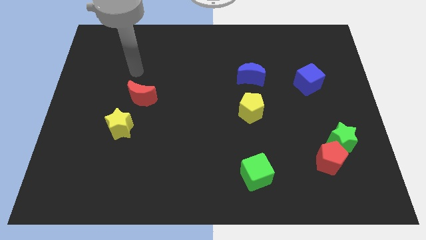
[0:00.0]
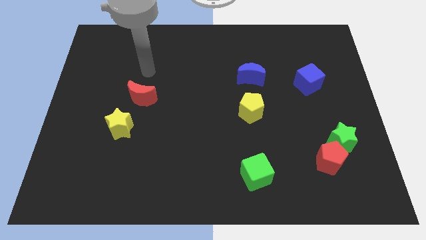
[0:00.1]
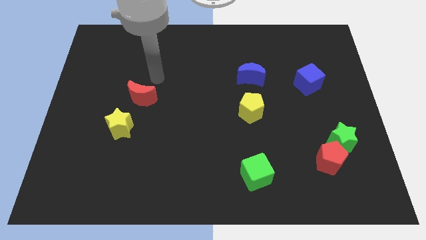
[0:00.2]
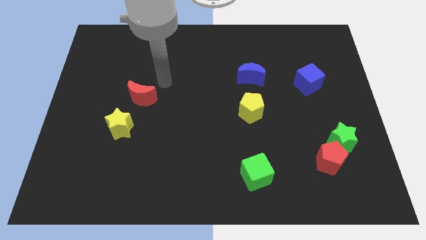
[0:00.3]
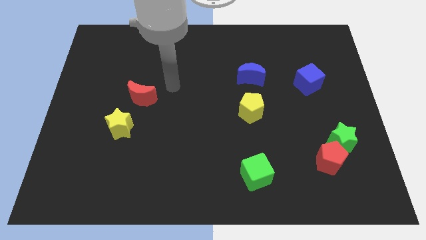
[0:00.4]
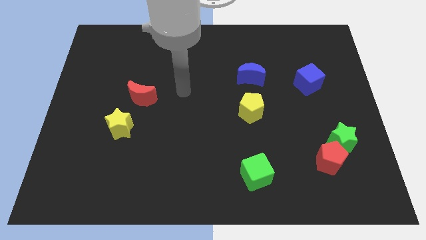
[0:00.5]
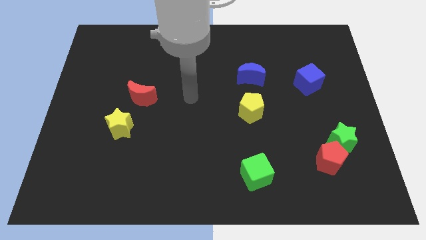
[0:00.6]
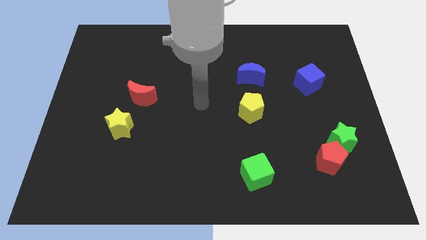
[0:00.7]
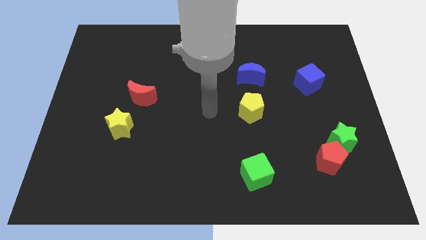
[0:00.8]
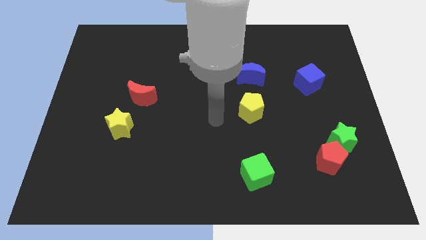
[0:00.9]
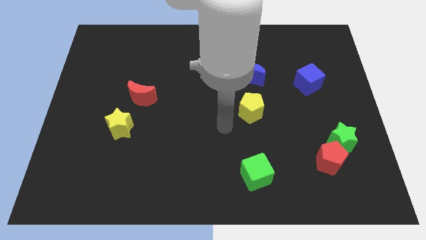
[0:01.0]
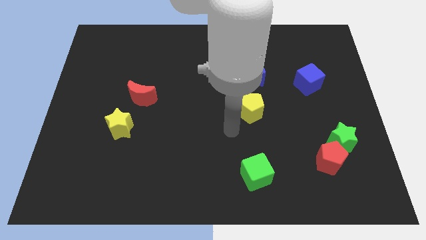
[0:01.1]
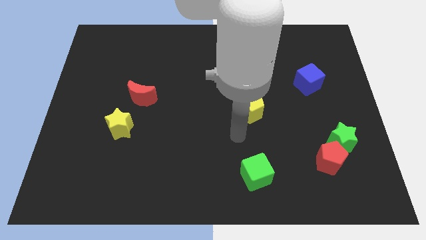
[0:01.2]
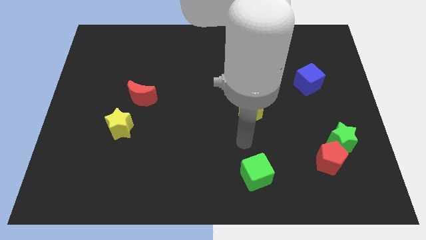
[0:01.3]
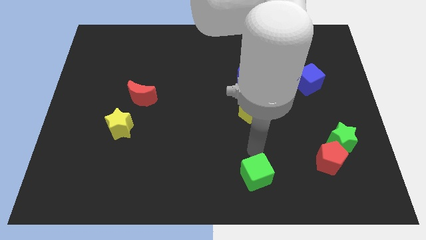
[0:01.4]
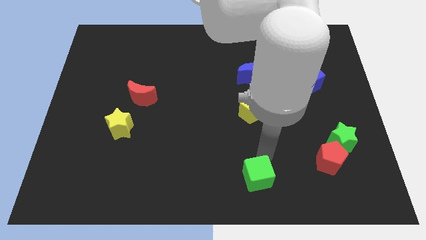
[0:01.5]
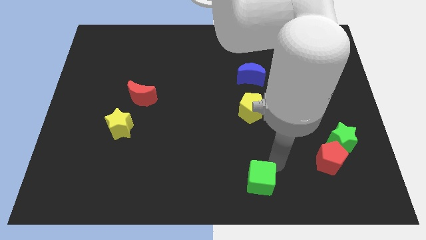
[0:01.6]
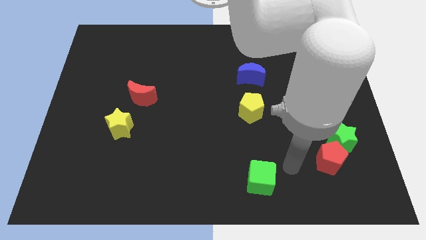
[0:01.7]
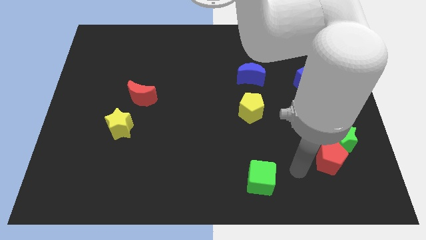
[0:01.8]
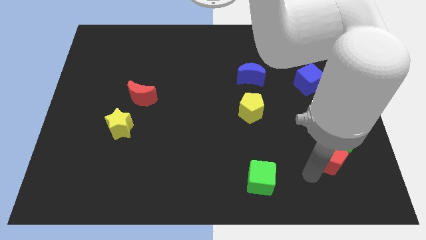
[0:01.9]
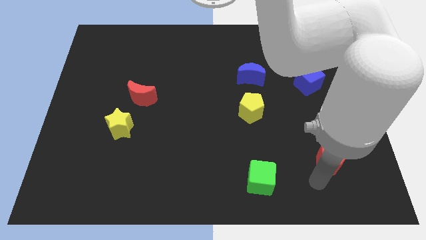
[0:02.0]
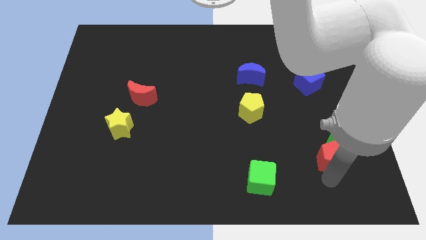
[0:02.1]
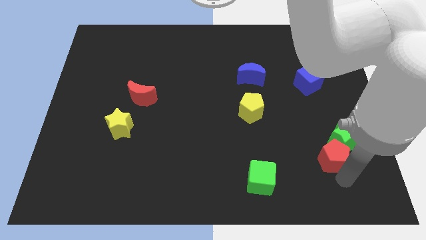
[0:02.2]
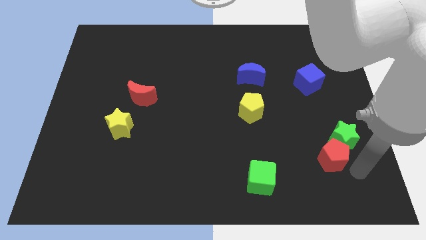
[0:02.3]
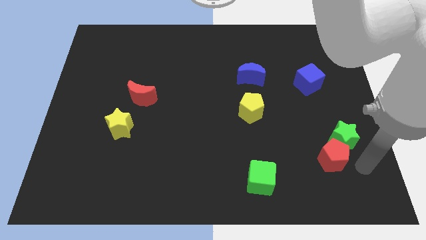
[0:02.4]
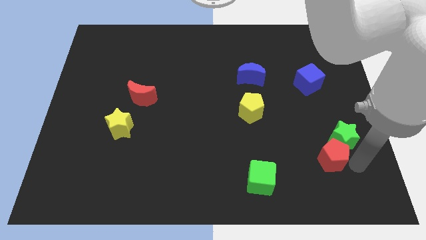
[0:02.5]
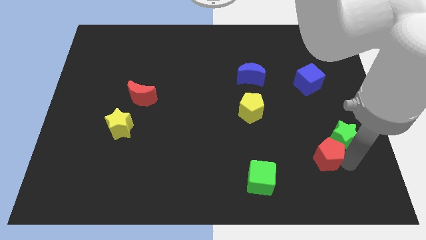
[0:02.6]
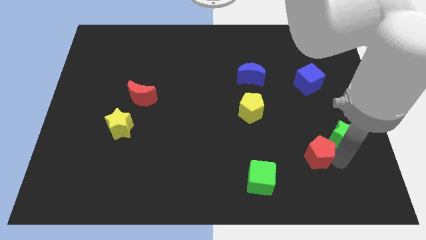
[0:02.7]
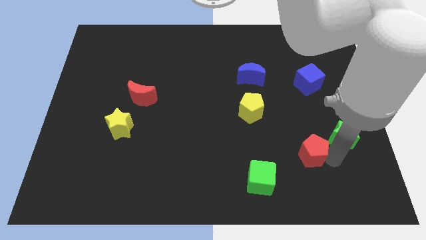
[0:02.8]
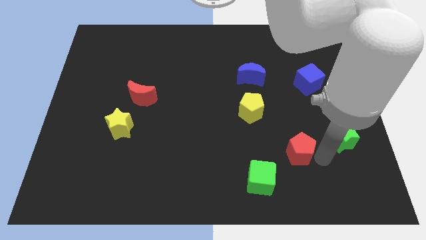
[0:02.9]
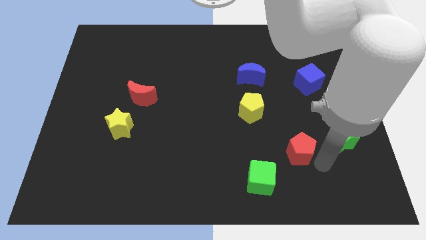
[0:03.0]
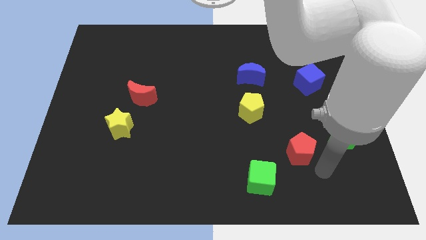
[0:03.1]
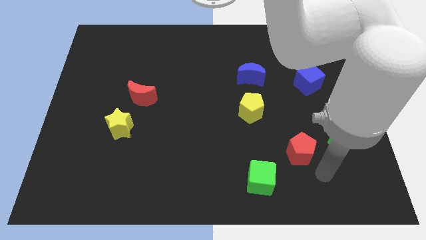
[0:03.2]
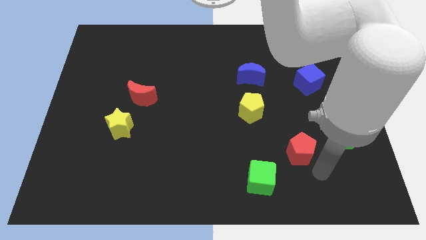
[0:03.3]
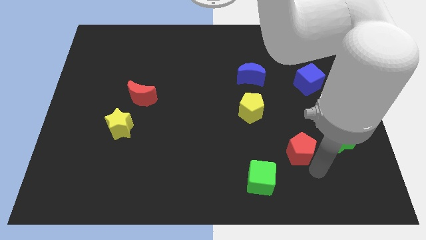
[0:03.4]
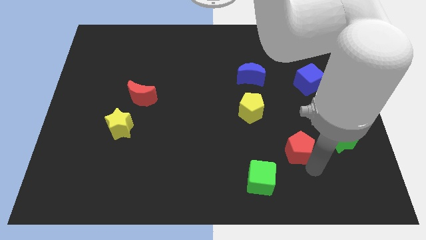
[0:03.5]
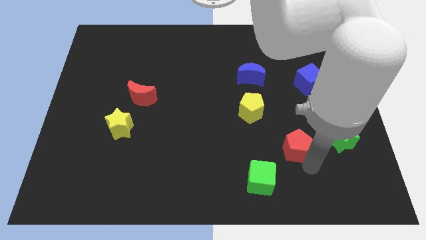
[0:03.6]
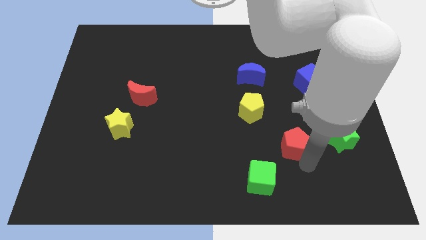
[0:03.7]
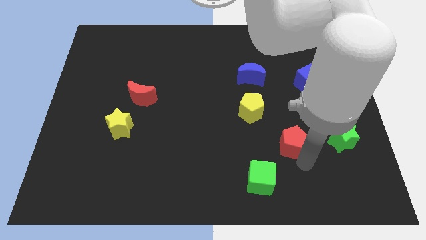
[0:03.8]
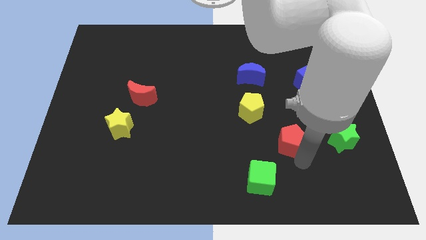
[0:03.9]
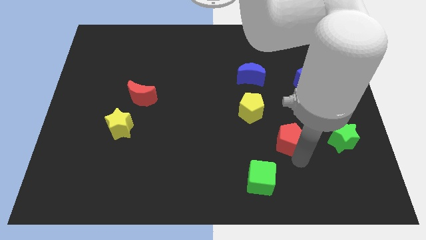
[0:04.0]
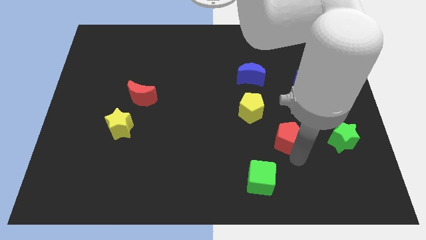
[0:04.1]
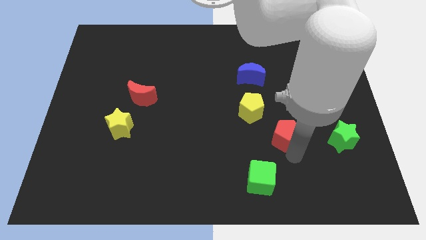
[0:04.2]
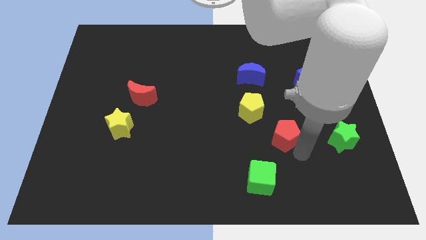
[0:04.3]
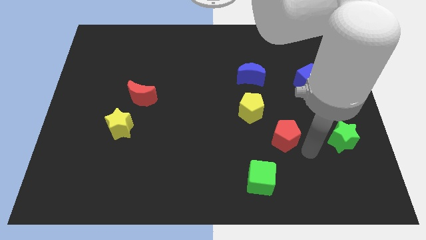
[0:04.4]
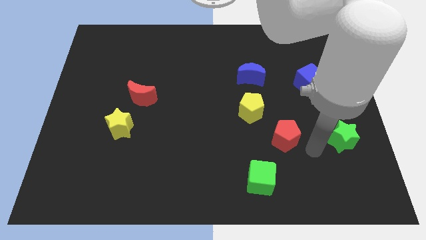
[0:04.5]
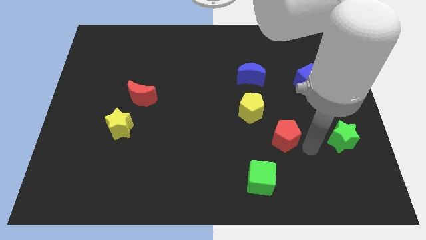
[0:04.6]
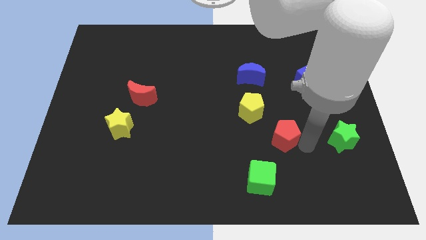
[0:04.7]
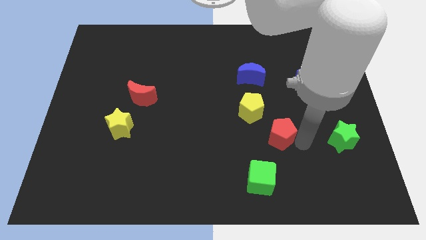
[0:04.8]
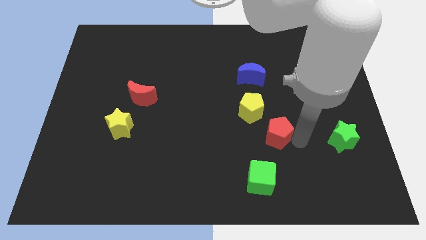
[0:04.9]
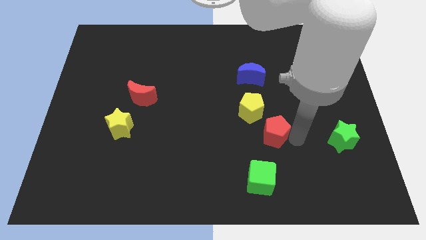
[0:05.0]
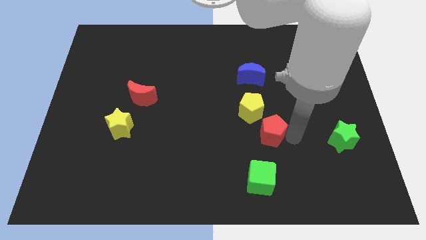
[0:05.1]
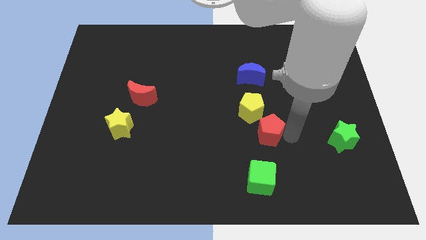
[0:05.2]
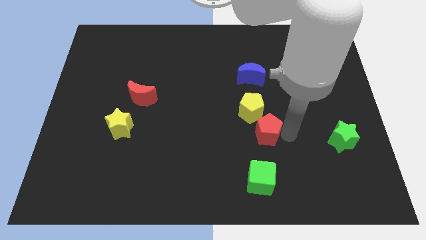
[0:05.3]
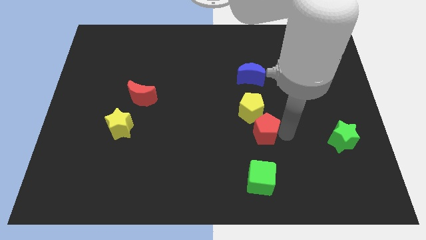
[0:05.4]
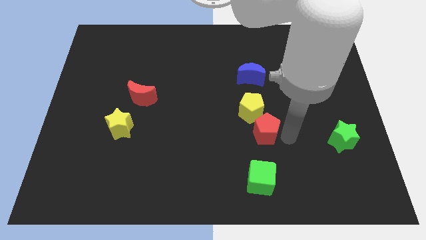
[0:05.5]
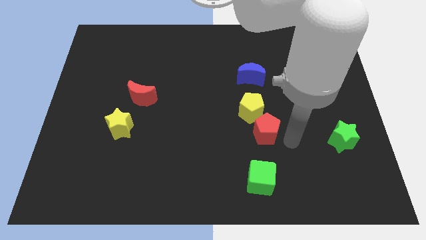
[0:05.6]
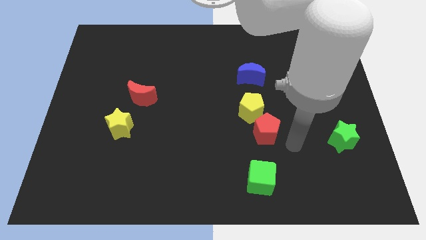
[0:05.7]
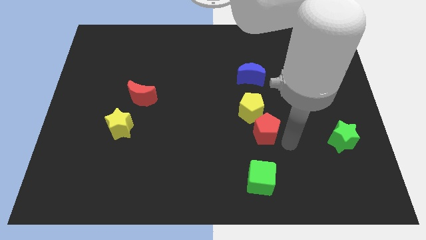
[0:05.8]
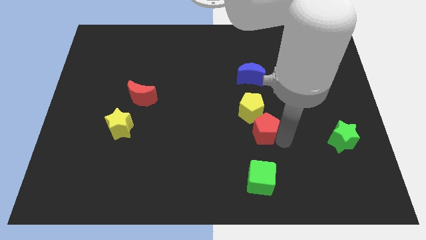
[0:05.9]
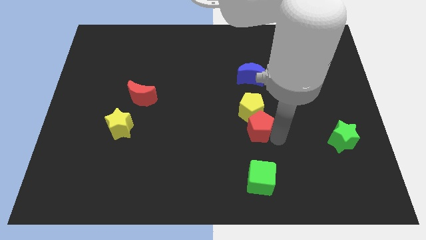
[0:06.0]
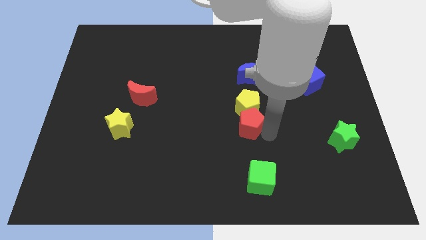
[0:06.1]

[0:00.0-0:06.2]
push the red pentagon to the center of the board

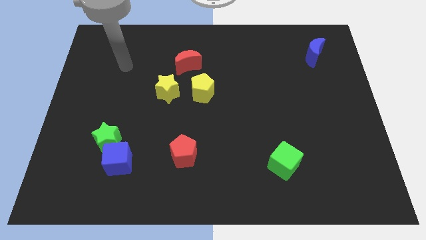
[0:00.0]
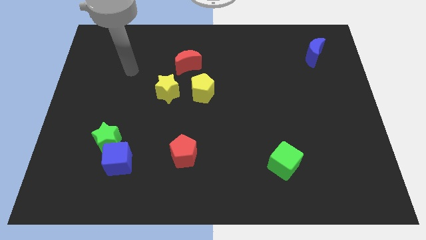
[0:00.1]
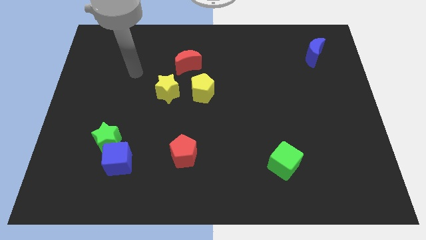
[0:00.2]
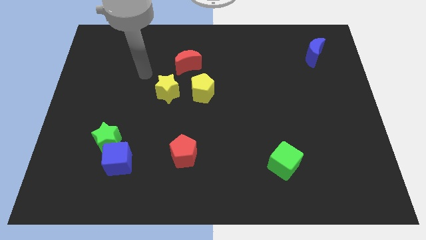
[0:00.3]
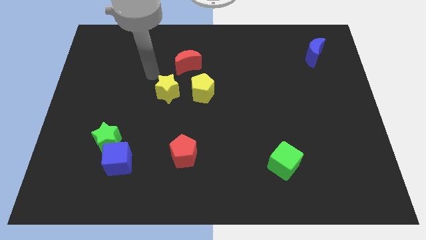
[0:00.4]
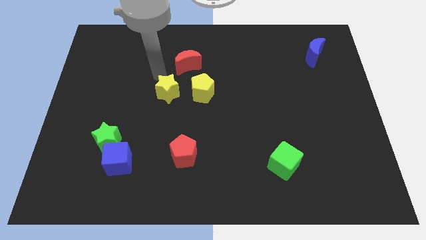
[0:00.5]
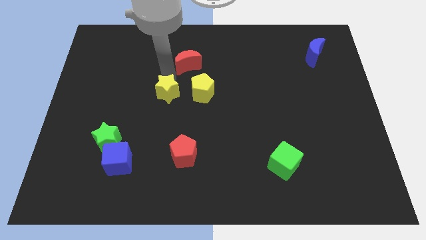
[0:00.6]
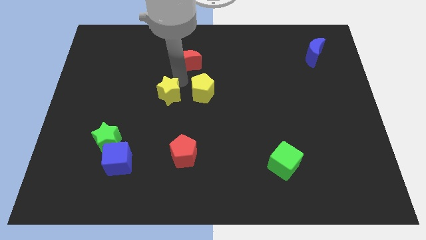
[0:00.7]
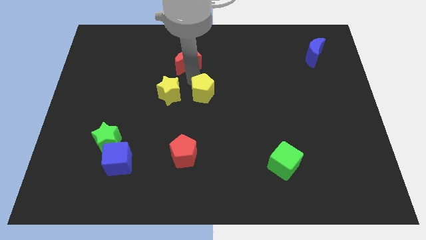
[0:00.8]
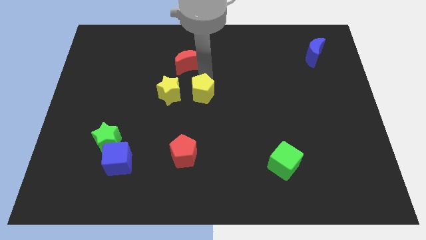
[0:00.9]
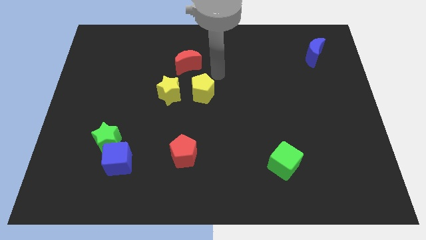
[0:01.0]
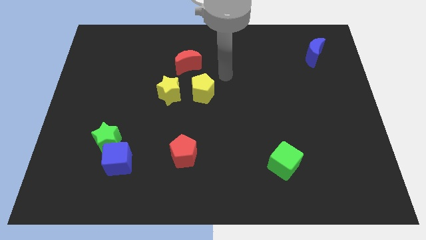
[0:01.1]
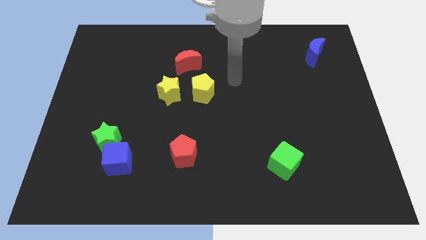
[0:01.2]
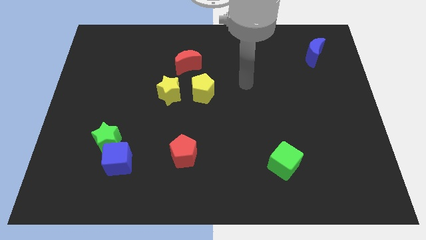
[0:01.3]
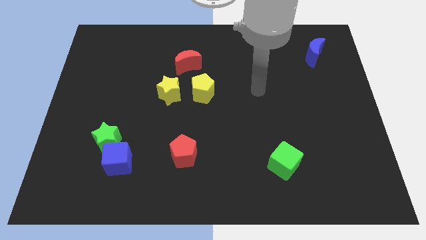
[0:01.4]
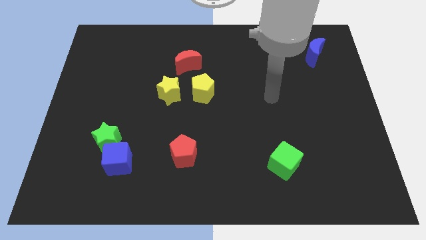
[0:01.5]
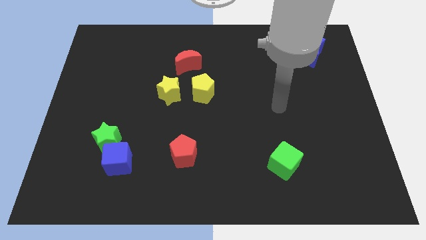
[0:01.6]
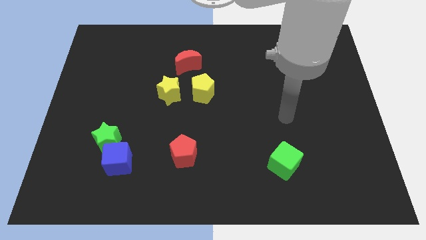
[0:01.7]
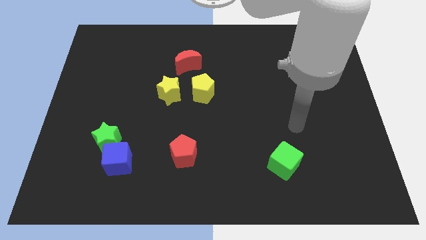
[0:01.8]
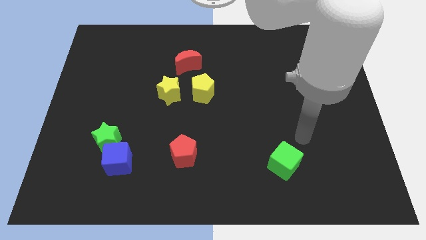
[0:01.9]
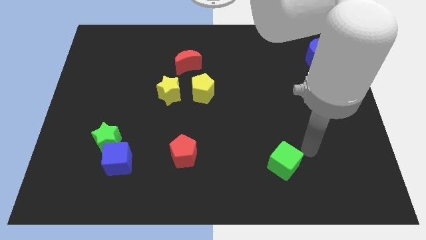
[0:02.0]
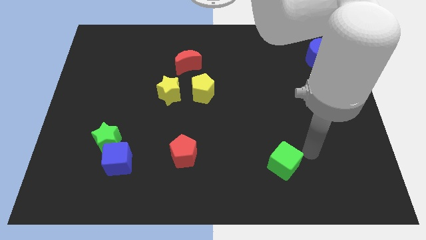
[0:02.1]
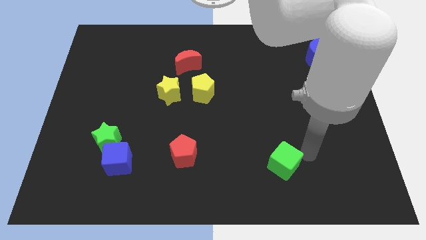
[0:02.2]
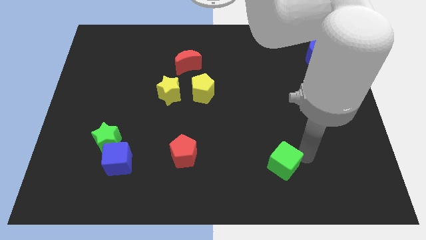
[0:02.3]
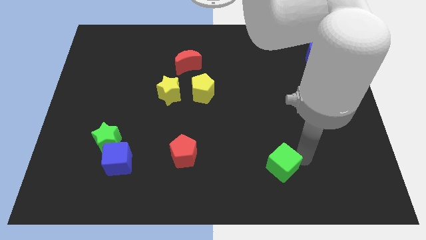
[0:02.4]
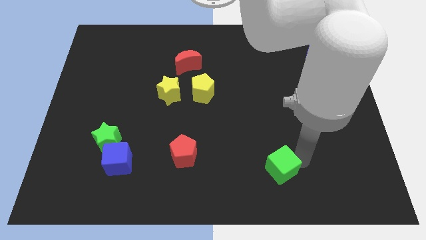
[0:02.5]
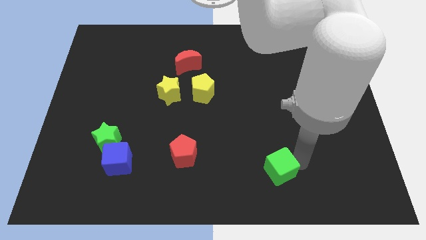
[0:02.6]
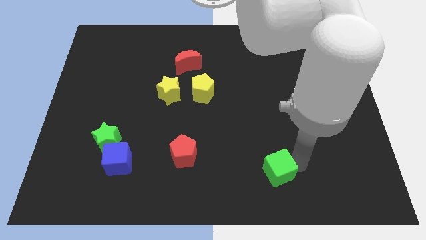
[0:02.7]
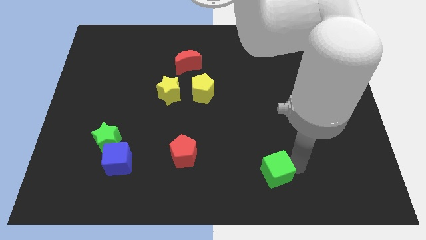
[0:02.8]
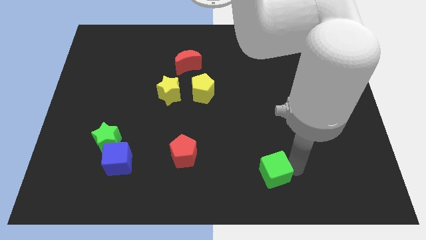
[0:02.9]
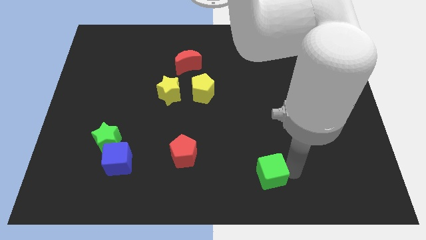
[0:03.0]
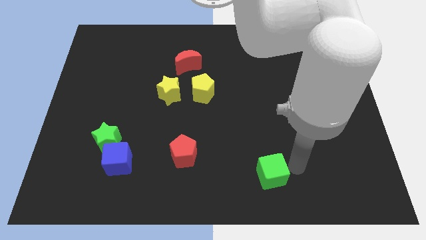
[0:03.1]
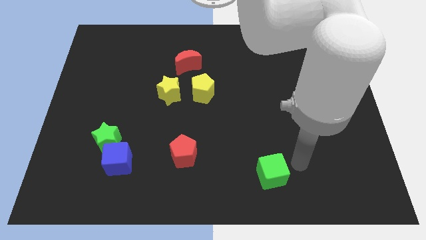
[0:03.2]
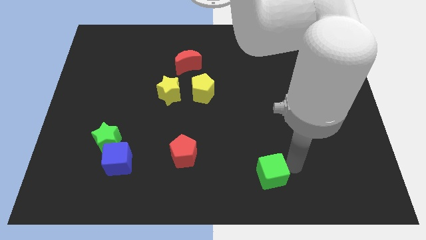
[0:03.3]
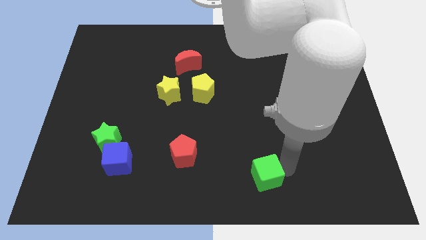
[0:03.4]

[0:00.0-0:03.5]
slide the green cube to the bottom side
